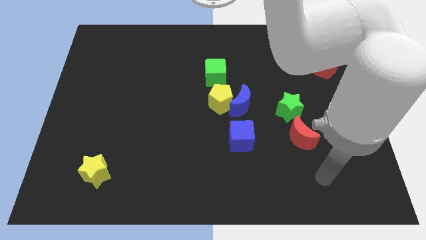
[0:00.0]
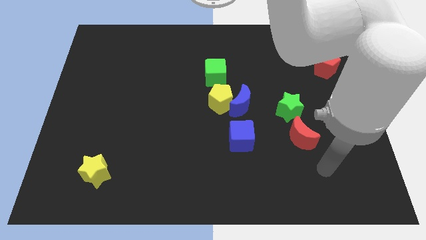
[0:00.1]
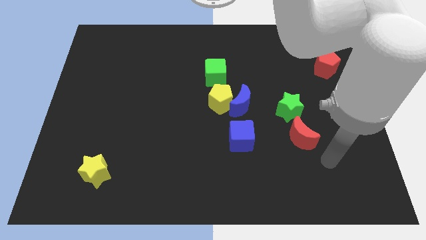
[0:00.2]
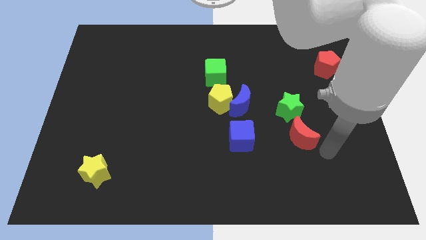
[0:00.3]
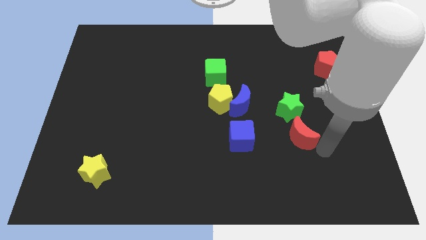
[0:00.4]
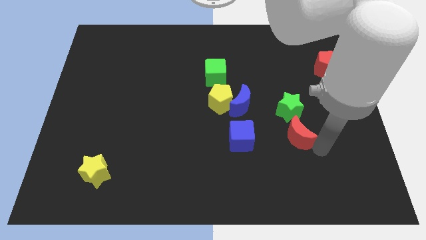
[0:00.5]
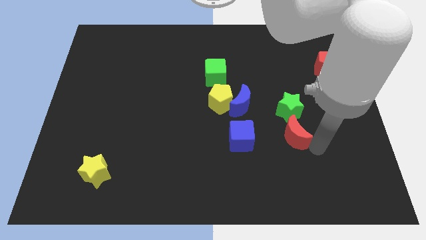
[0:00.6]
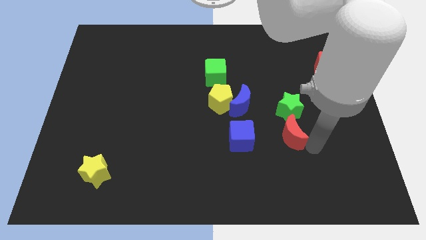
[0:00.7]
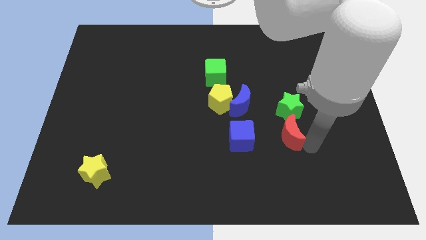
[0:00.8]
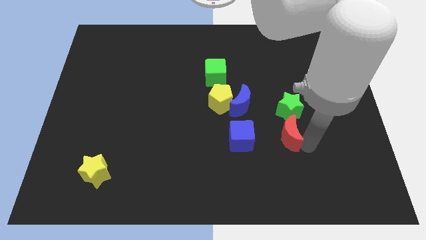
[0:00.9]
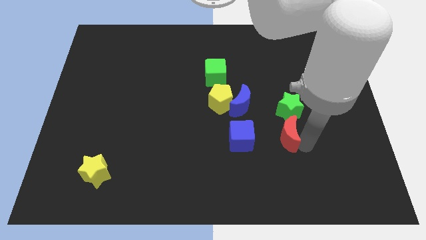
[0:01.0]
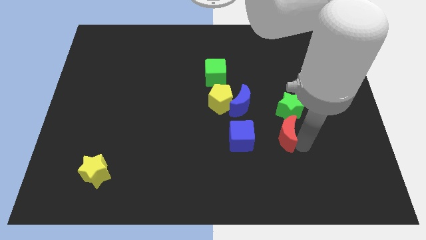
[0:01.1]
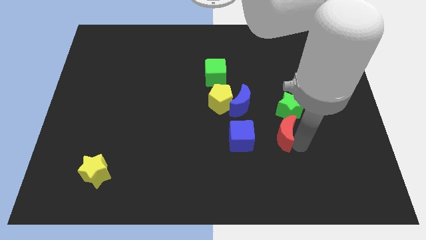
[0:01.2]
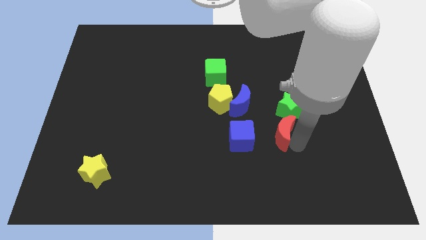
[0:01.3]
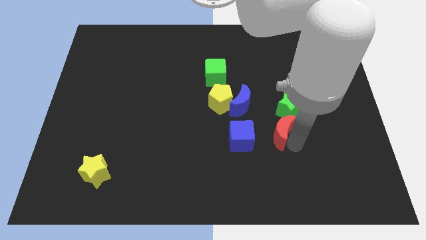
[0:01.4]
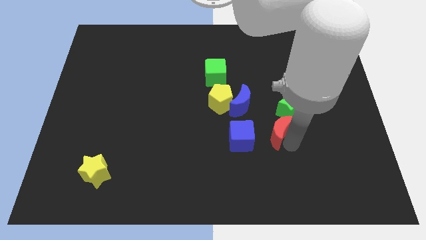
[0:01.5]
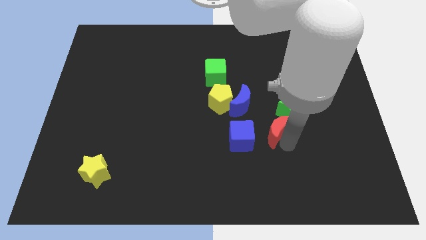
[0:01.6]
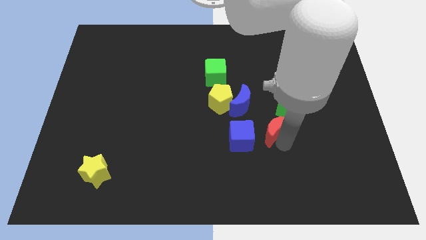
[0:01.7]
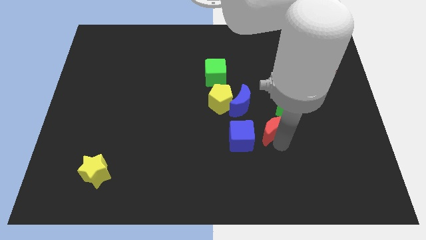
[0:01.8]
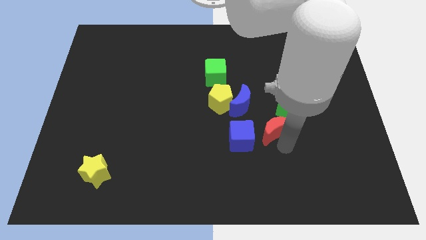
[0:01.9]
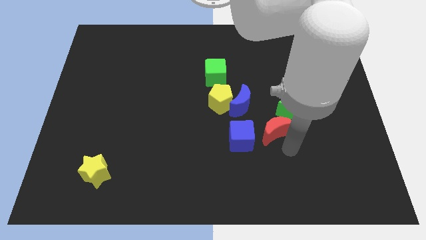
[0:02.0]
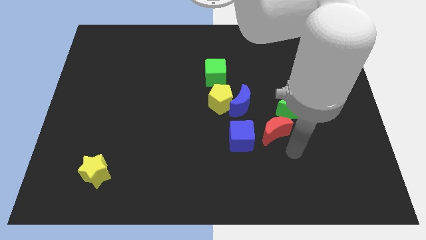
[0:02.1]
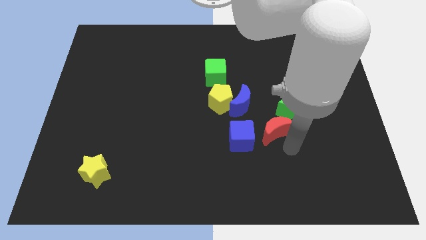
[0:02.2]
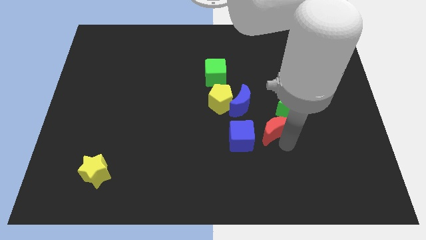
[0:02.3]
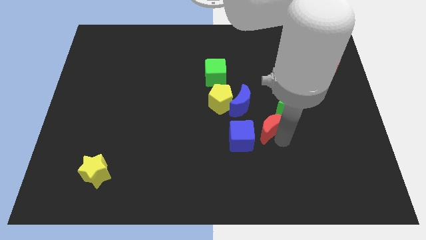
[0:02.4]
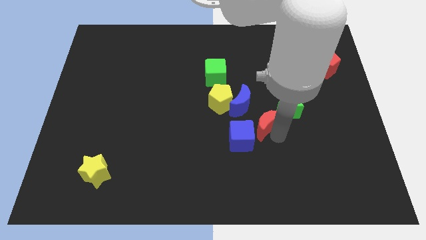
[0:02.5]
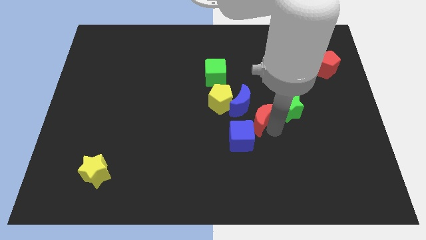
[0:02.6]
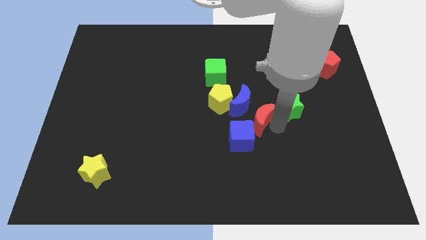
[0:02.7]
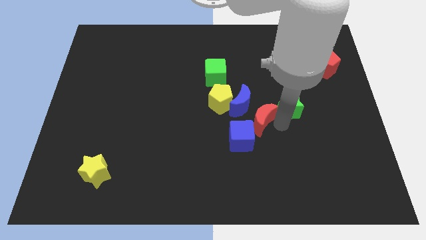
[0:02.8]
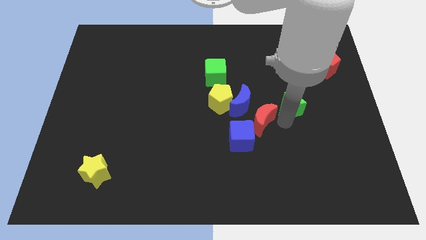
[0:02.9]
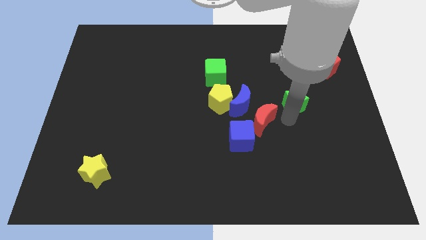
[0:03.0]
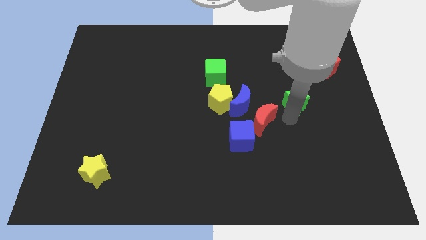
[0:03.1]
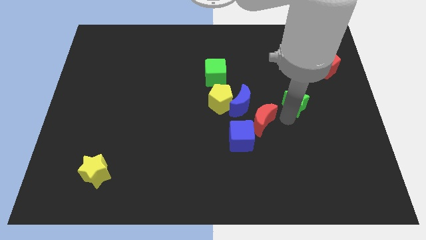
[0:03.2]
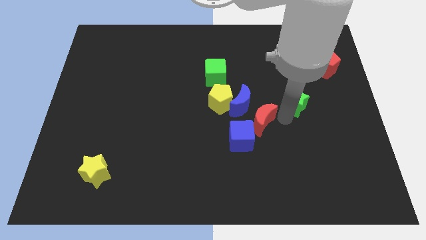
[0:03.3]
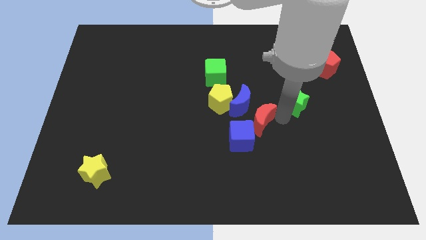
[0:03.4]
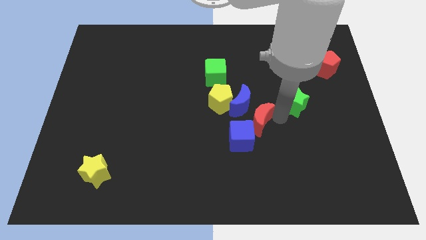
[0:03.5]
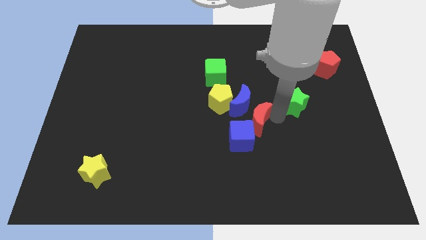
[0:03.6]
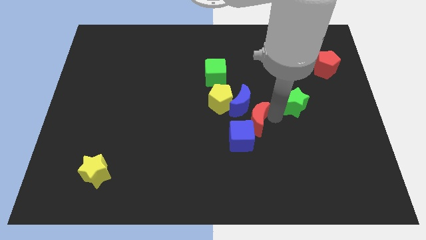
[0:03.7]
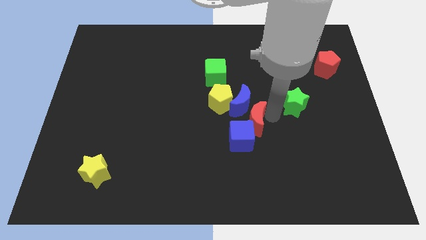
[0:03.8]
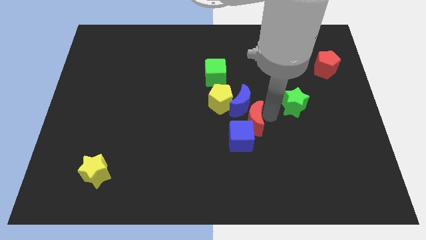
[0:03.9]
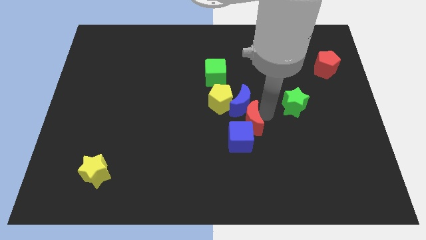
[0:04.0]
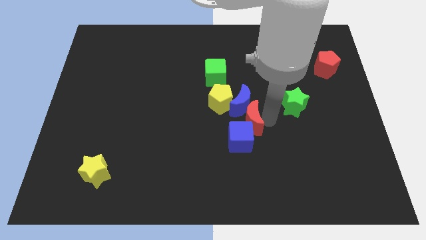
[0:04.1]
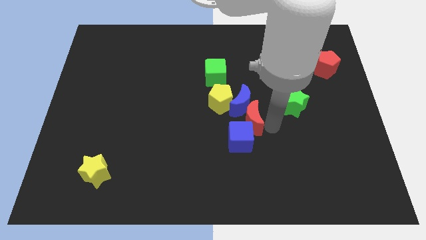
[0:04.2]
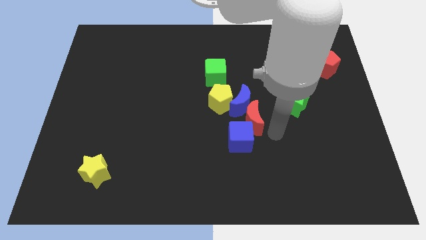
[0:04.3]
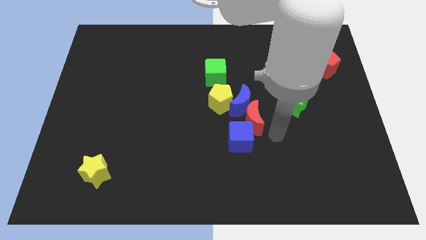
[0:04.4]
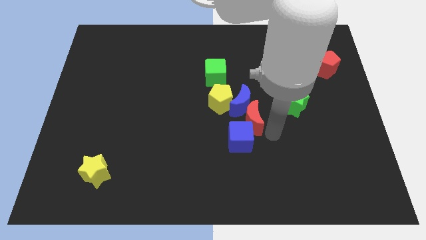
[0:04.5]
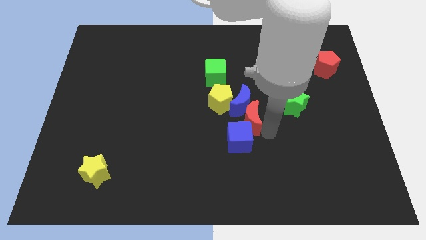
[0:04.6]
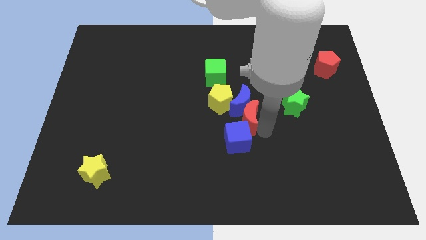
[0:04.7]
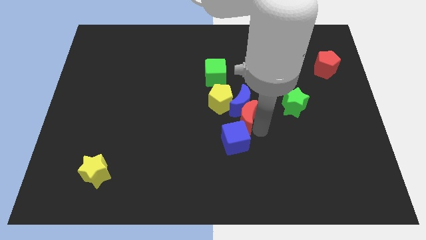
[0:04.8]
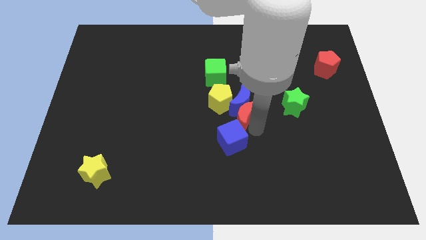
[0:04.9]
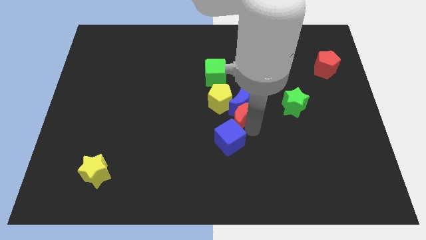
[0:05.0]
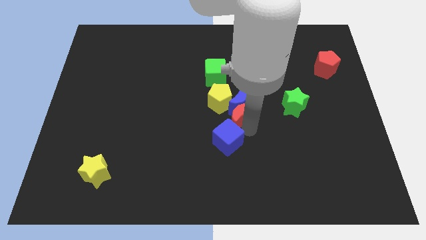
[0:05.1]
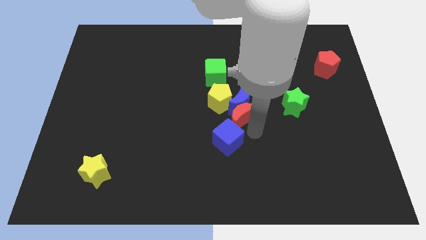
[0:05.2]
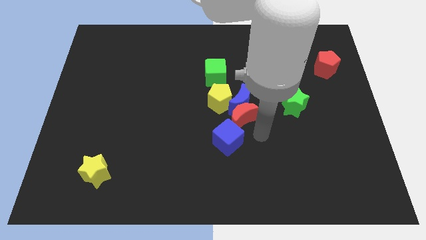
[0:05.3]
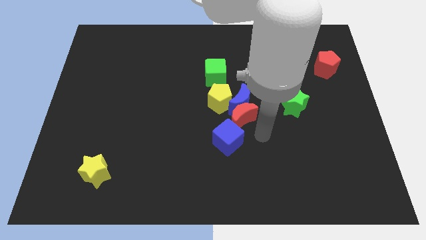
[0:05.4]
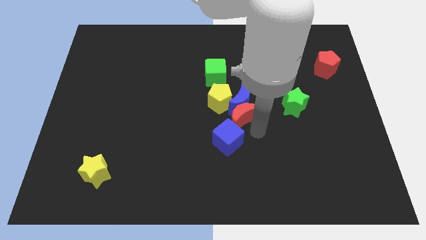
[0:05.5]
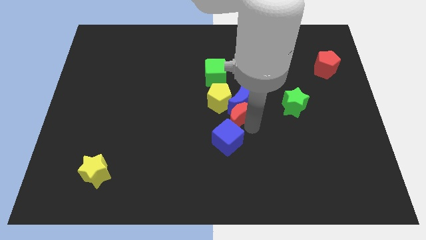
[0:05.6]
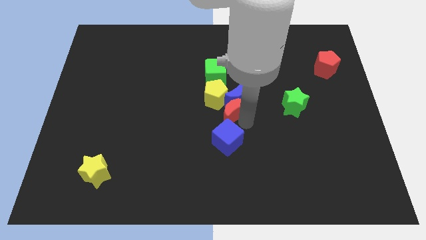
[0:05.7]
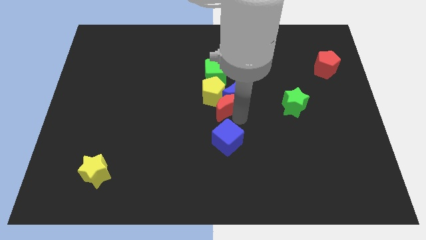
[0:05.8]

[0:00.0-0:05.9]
push the red moon towards the yellow pentagon
